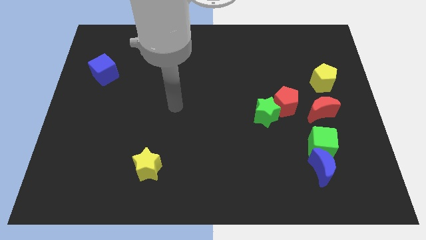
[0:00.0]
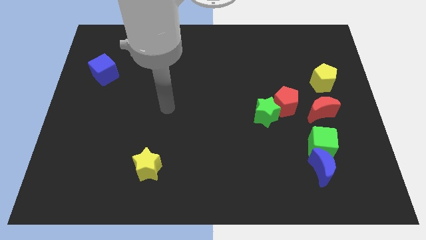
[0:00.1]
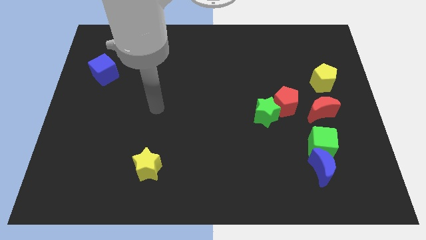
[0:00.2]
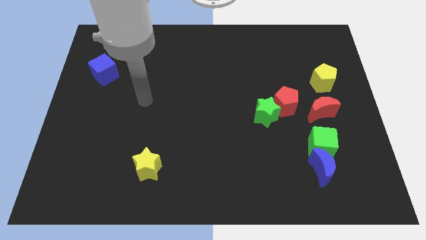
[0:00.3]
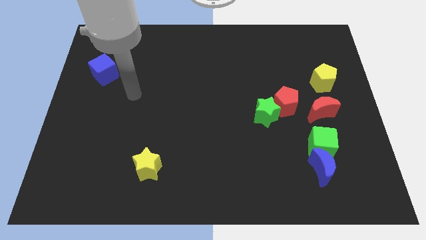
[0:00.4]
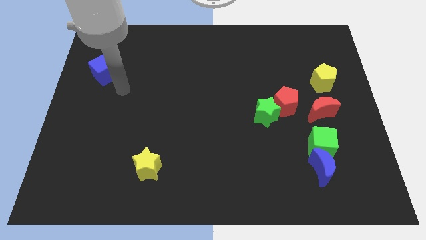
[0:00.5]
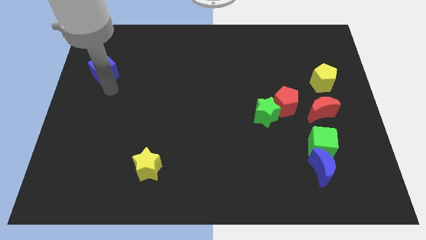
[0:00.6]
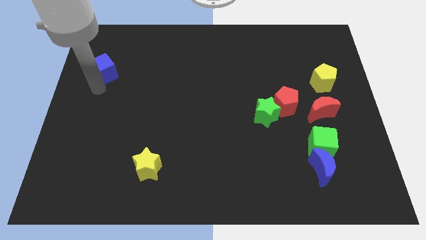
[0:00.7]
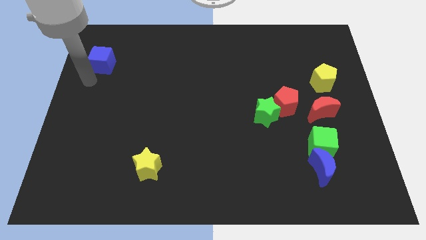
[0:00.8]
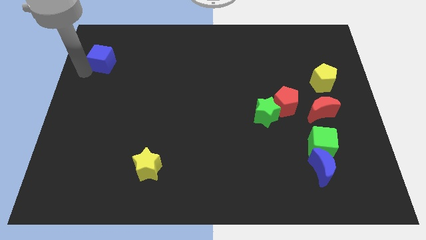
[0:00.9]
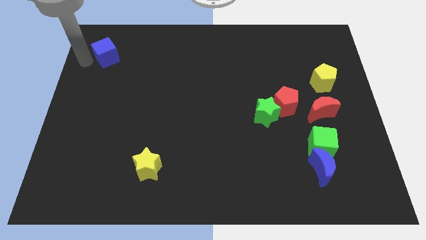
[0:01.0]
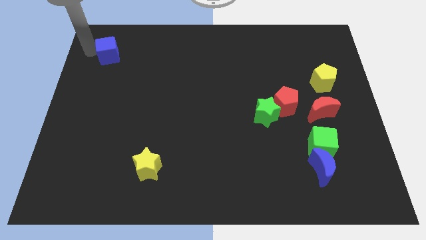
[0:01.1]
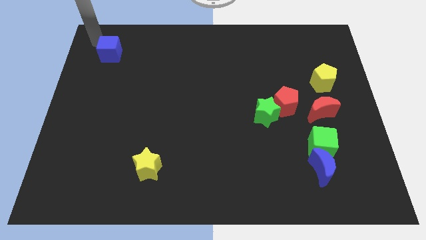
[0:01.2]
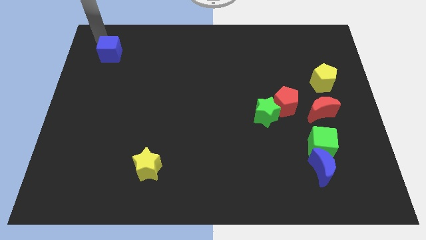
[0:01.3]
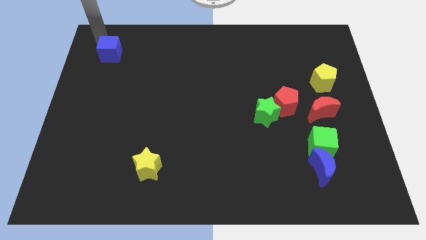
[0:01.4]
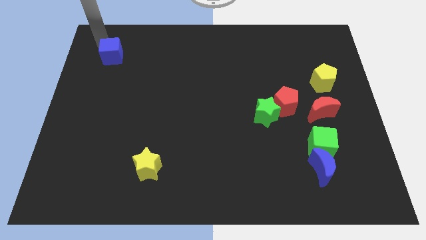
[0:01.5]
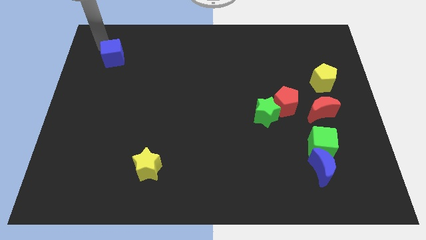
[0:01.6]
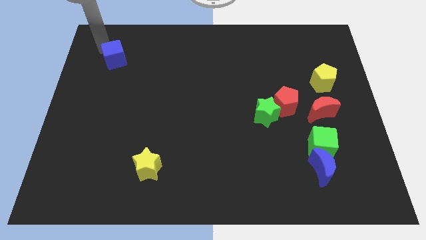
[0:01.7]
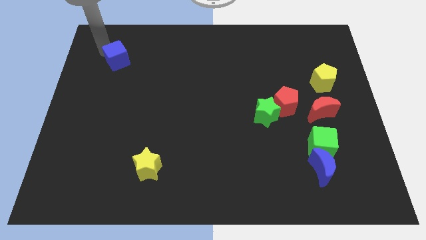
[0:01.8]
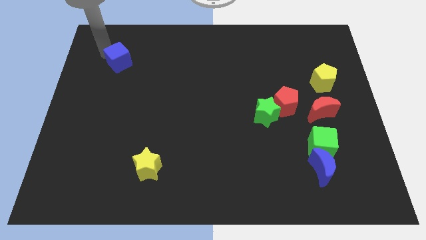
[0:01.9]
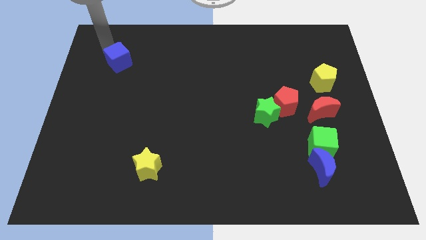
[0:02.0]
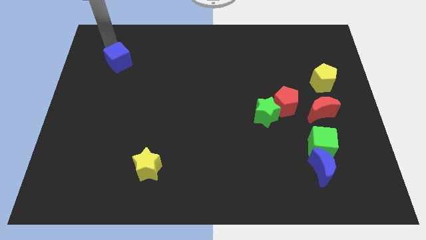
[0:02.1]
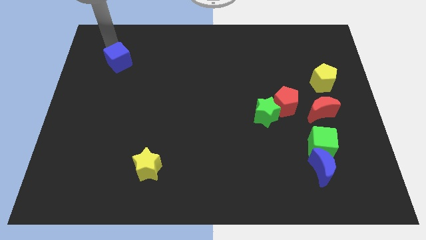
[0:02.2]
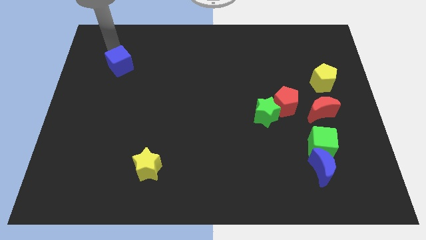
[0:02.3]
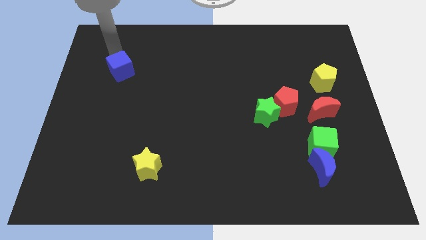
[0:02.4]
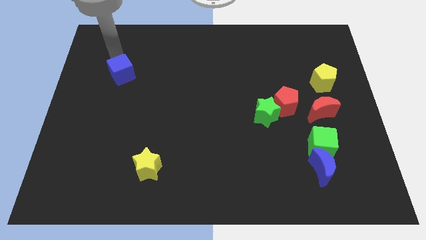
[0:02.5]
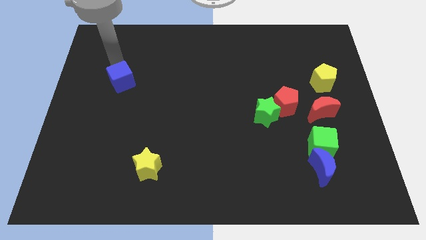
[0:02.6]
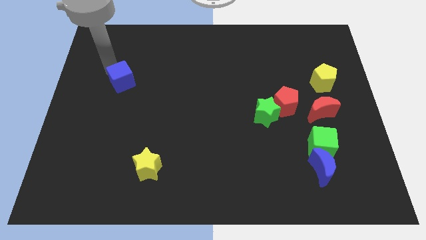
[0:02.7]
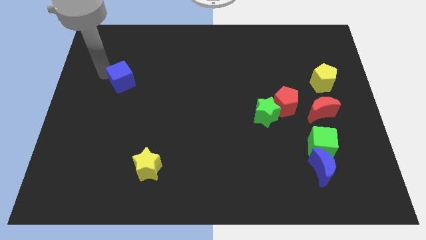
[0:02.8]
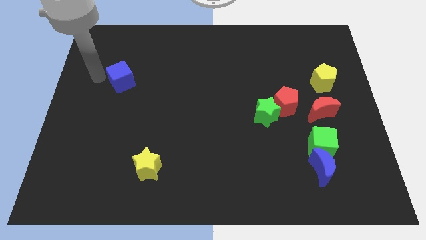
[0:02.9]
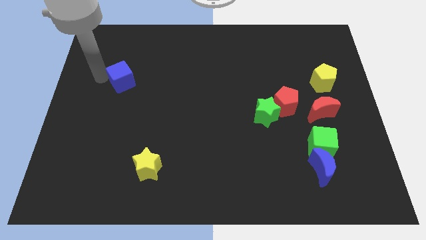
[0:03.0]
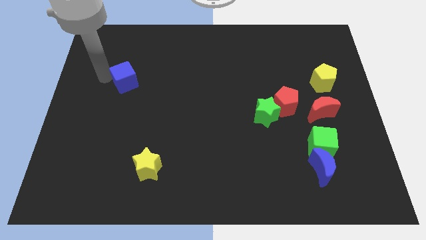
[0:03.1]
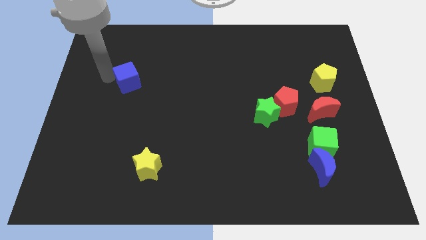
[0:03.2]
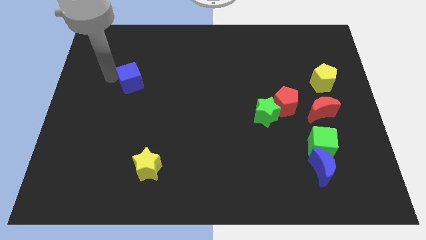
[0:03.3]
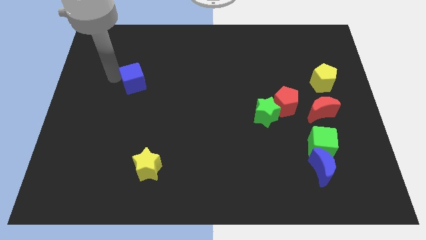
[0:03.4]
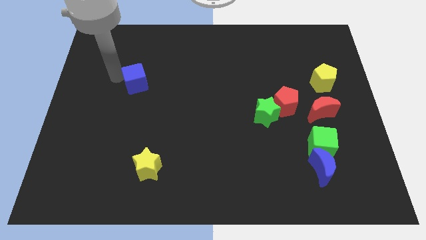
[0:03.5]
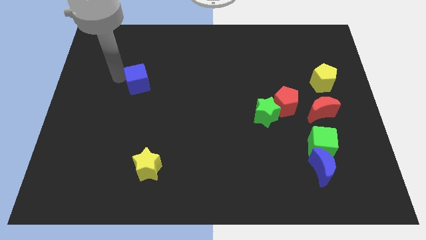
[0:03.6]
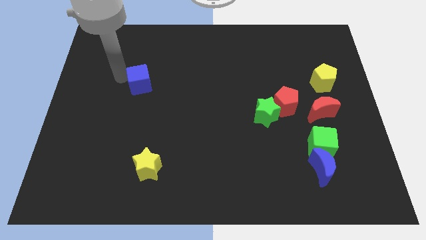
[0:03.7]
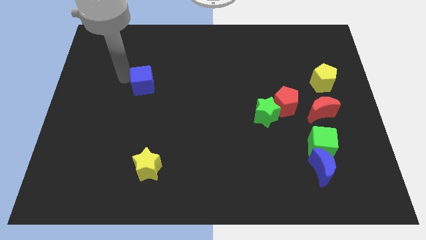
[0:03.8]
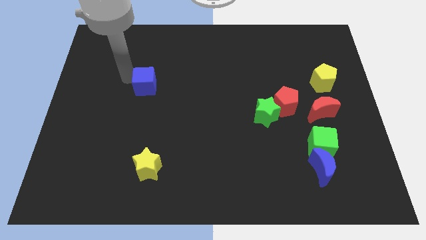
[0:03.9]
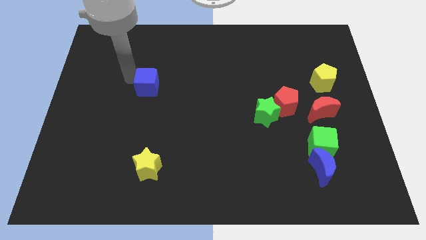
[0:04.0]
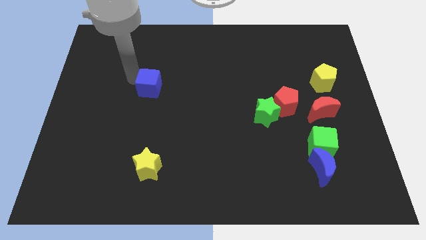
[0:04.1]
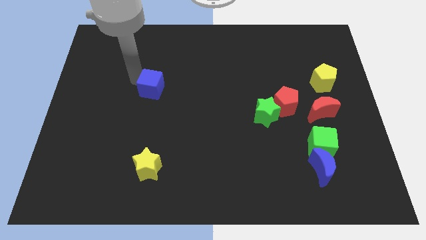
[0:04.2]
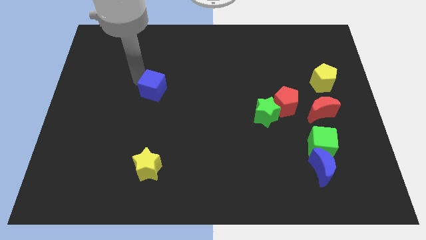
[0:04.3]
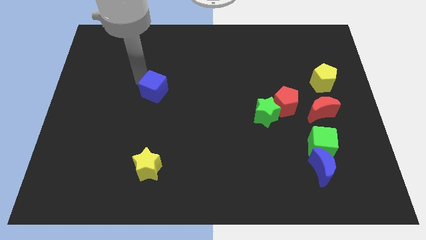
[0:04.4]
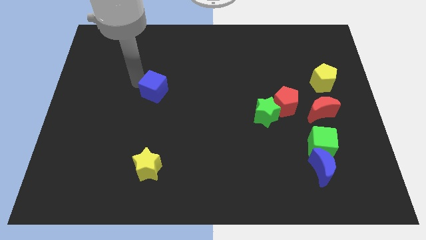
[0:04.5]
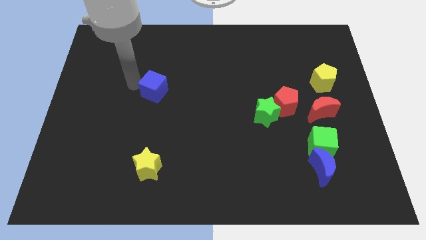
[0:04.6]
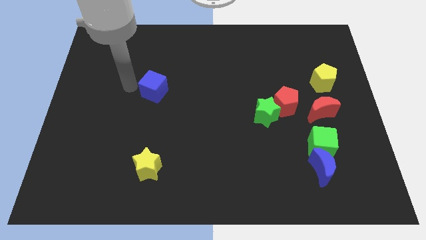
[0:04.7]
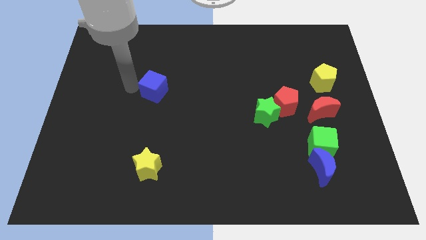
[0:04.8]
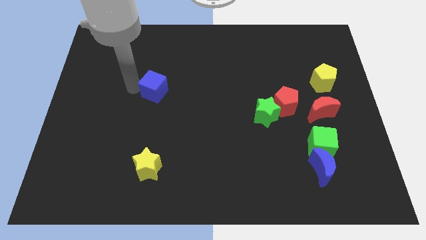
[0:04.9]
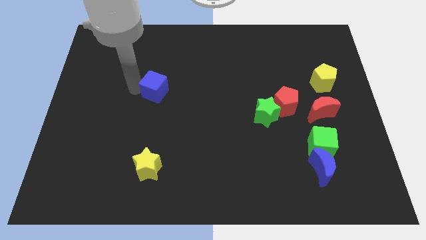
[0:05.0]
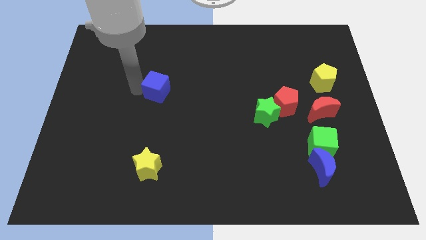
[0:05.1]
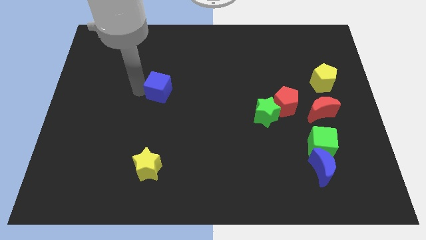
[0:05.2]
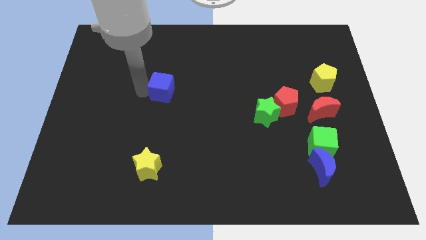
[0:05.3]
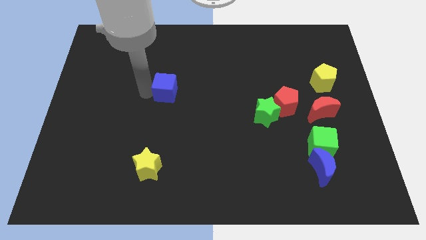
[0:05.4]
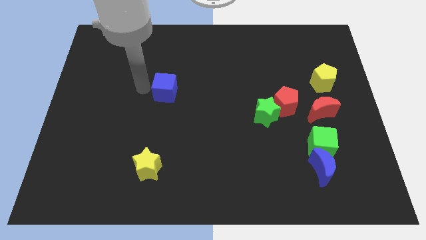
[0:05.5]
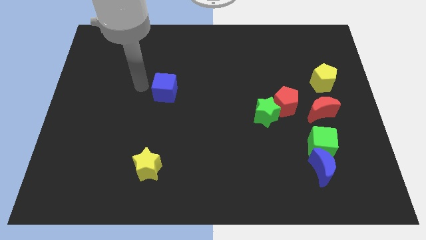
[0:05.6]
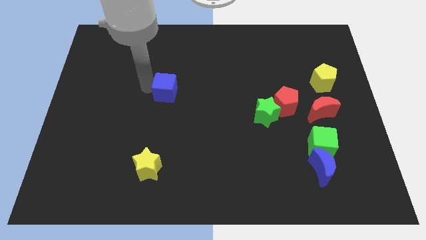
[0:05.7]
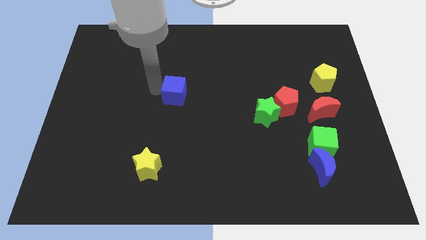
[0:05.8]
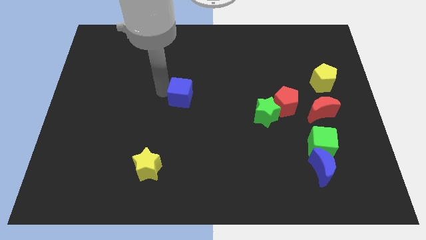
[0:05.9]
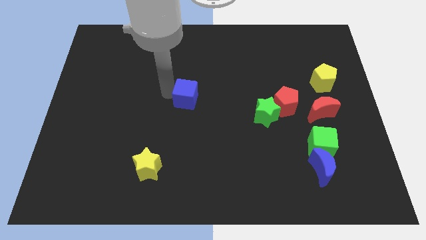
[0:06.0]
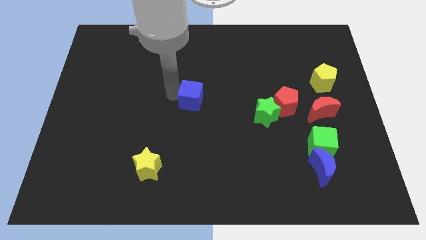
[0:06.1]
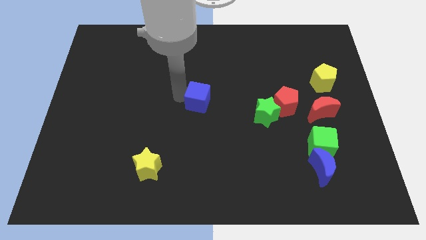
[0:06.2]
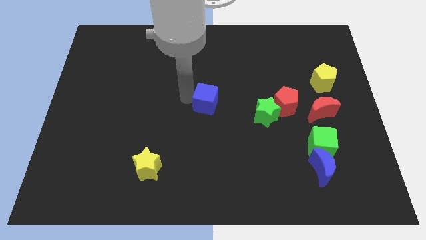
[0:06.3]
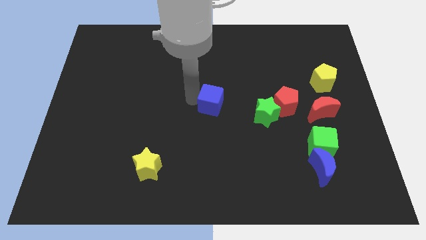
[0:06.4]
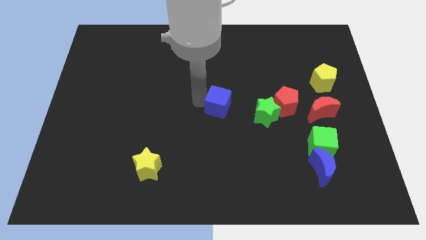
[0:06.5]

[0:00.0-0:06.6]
put the blue cube just left of the red pentagon
